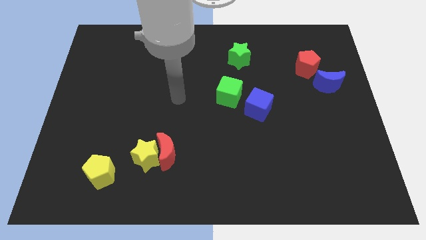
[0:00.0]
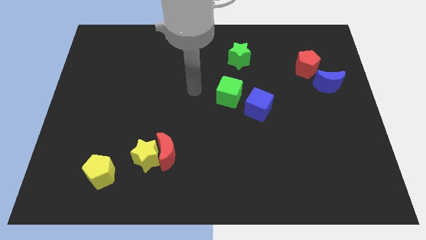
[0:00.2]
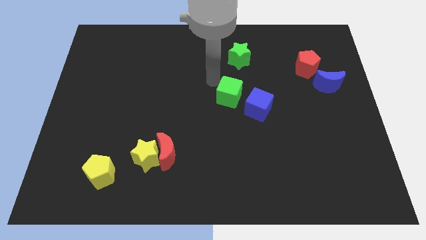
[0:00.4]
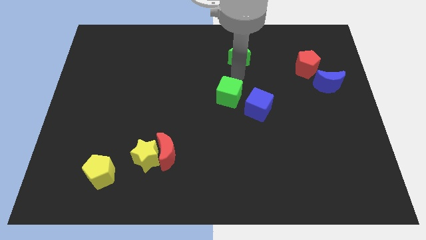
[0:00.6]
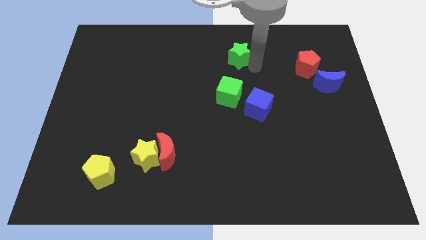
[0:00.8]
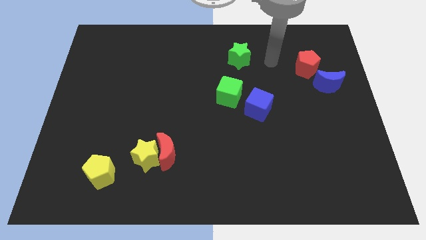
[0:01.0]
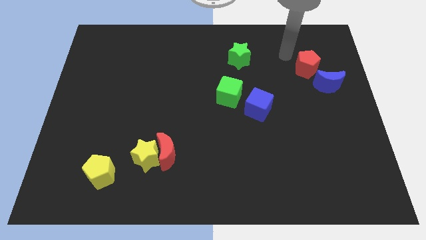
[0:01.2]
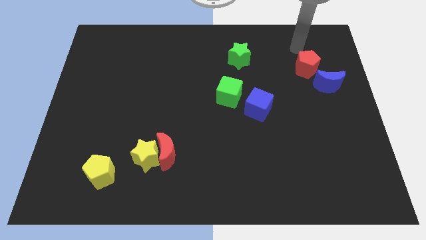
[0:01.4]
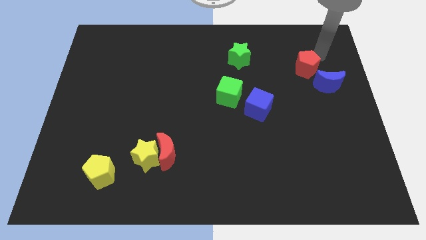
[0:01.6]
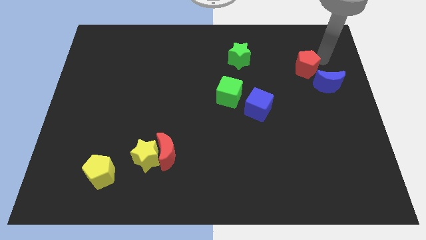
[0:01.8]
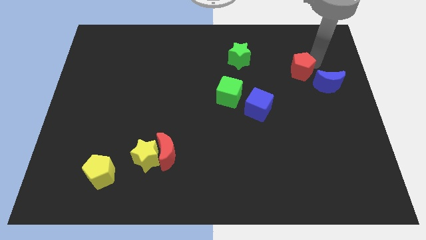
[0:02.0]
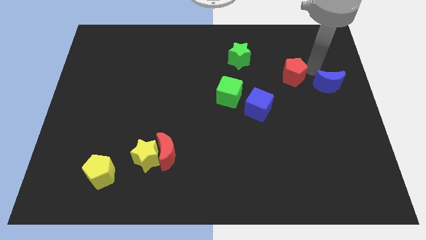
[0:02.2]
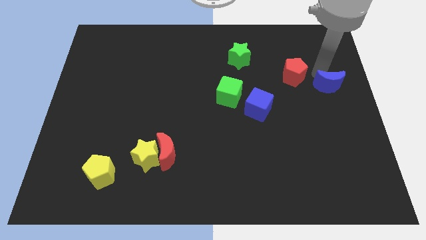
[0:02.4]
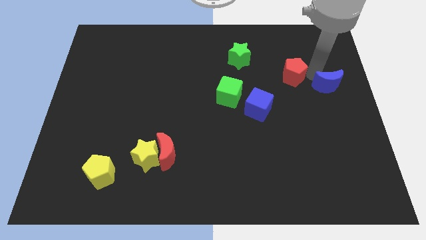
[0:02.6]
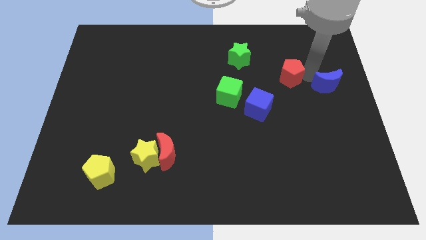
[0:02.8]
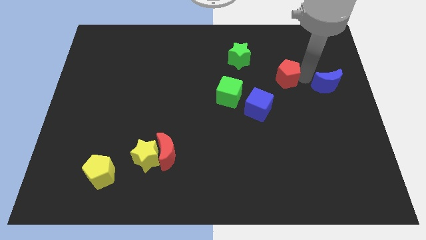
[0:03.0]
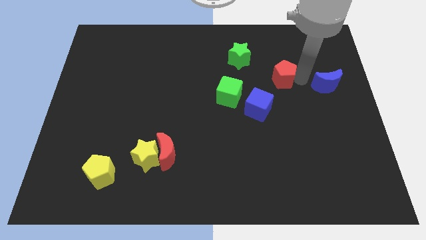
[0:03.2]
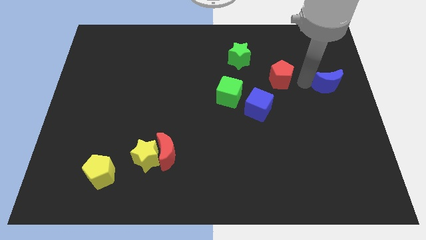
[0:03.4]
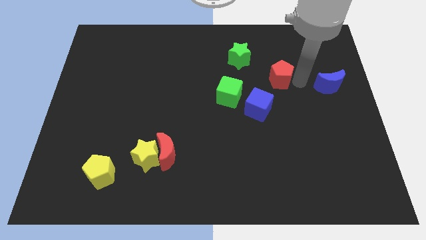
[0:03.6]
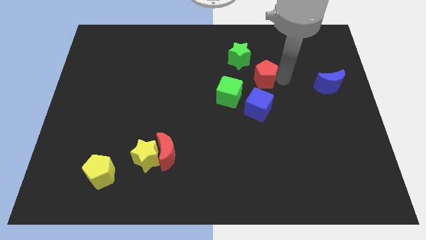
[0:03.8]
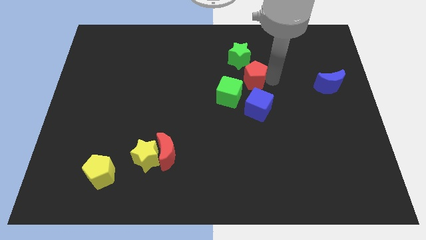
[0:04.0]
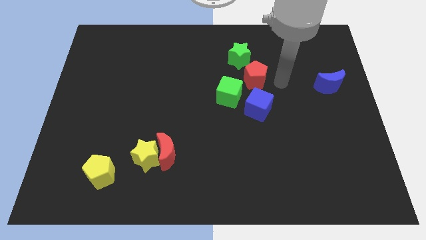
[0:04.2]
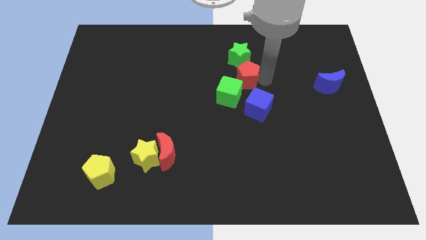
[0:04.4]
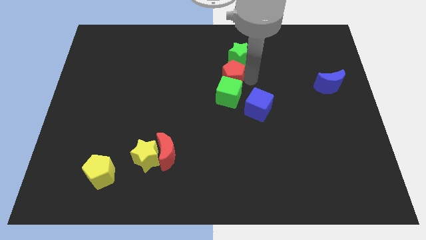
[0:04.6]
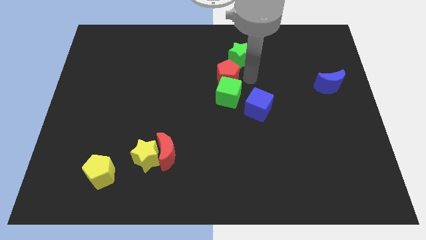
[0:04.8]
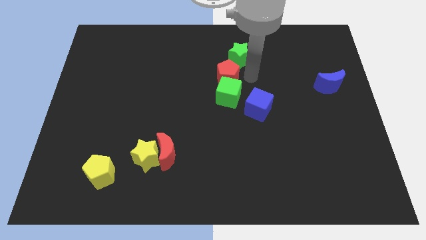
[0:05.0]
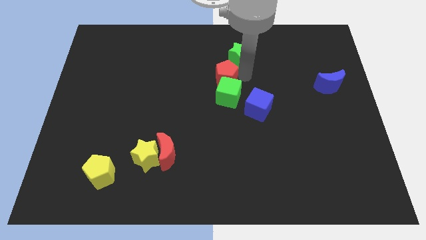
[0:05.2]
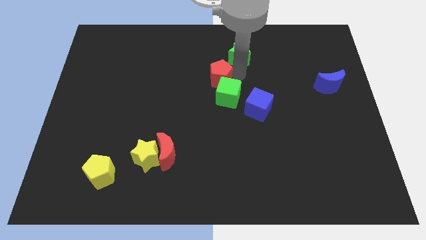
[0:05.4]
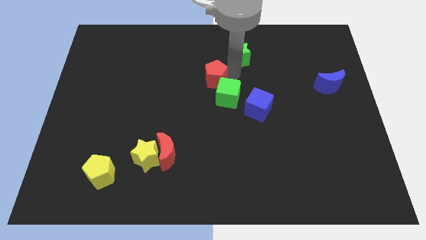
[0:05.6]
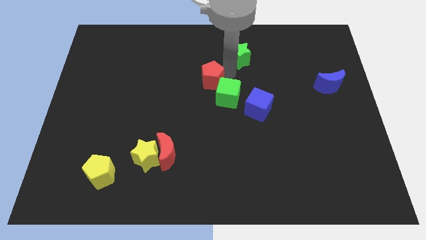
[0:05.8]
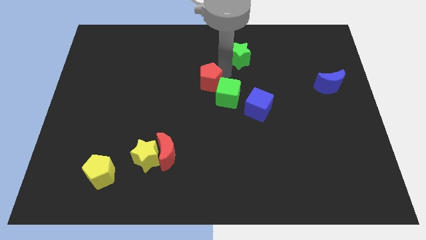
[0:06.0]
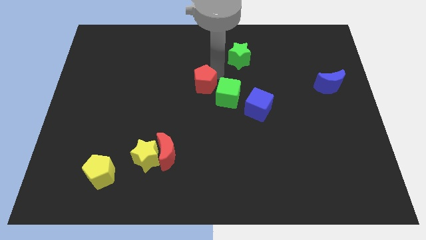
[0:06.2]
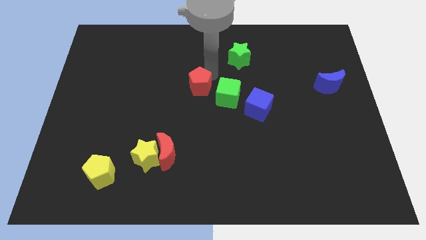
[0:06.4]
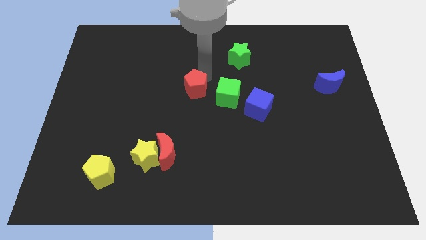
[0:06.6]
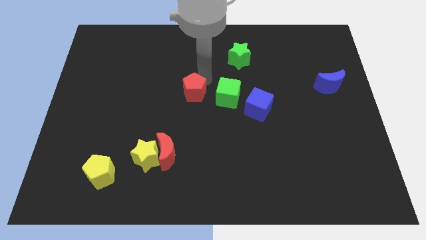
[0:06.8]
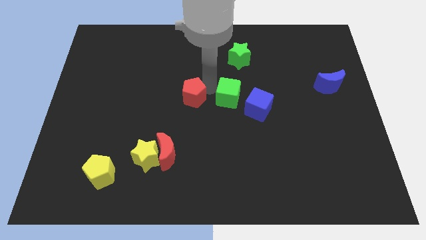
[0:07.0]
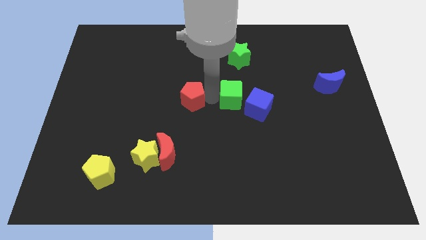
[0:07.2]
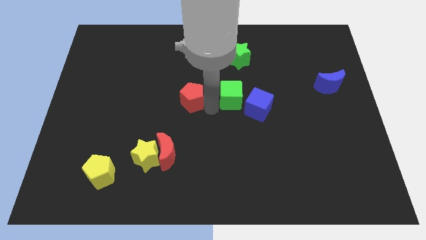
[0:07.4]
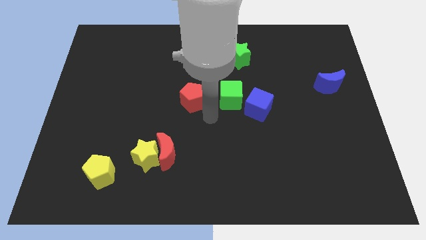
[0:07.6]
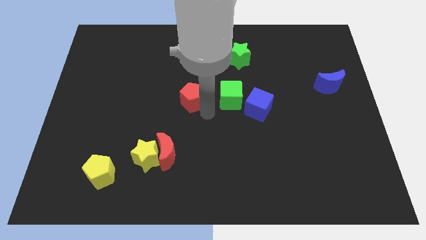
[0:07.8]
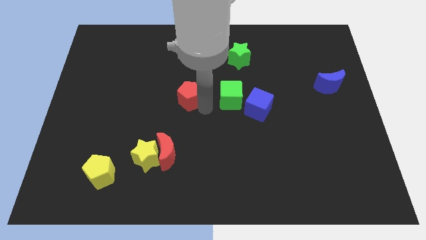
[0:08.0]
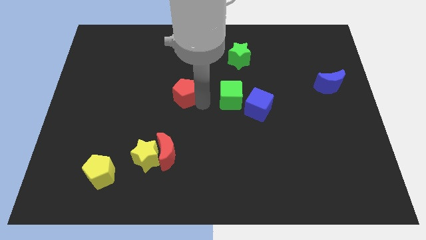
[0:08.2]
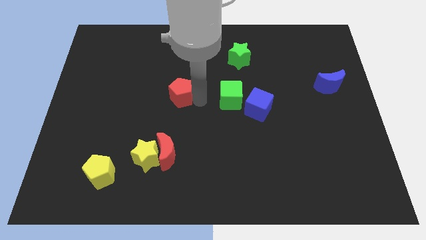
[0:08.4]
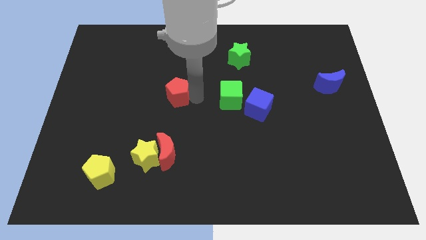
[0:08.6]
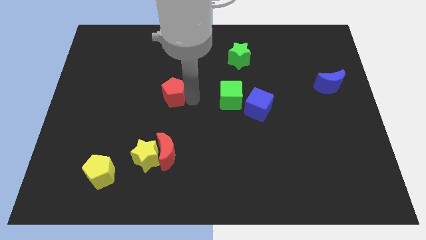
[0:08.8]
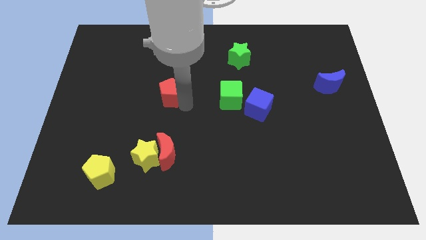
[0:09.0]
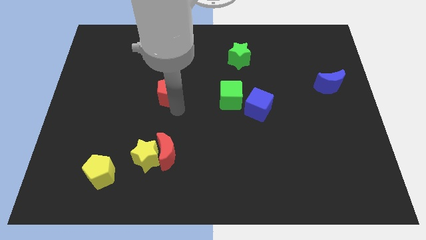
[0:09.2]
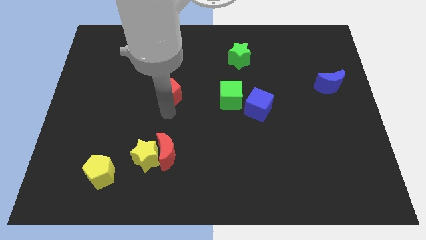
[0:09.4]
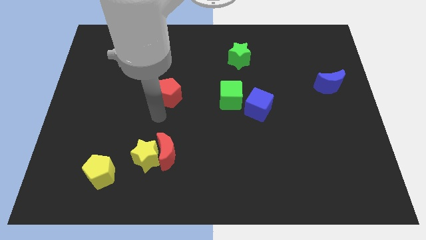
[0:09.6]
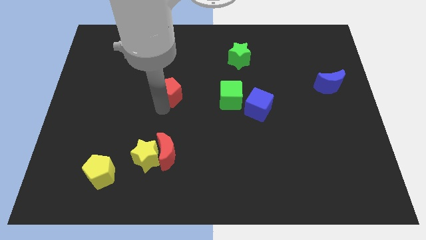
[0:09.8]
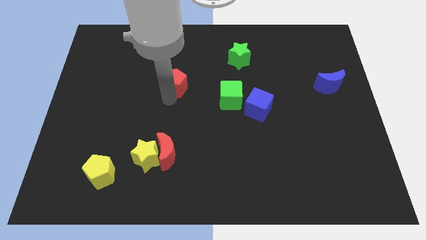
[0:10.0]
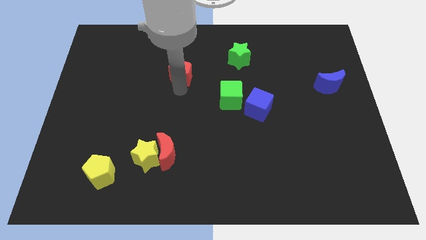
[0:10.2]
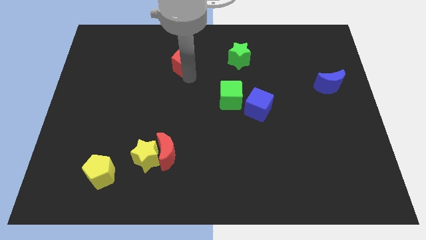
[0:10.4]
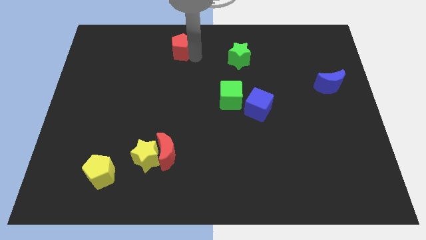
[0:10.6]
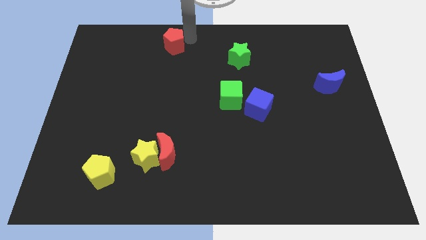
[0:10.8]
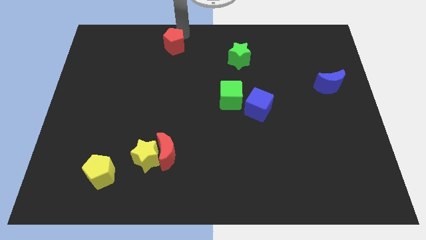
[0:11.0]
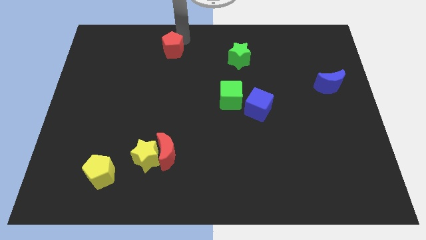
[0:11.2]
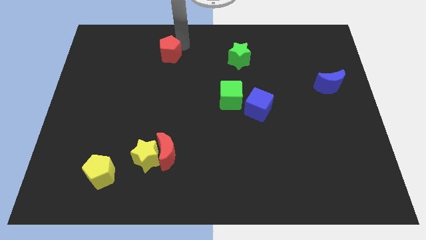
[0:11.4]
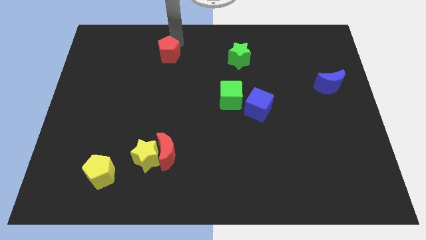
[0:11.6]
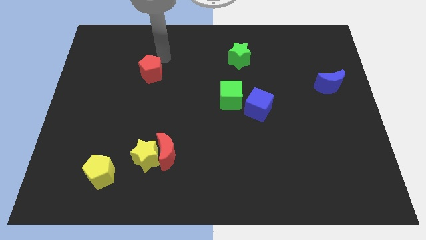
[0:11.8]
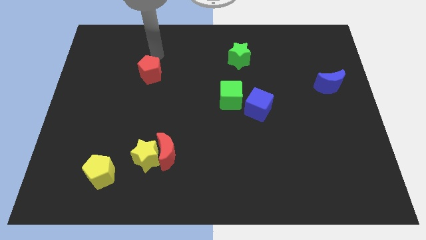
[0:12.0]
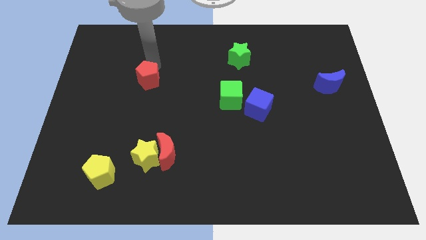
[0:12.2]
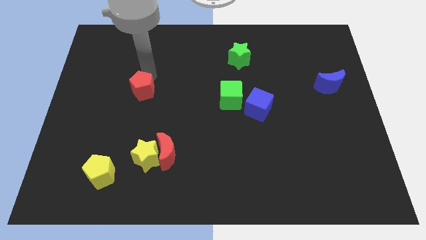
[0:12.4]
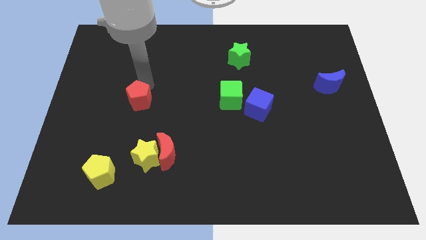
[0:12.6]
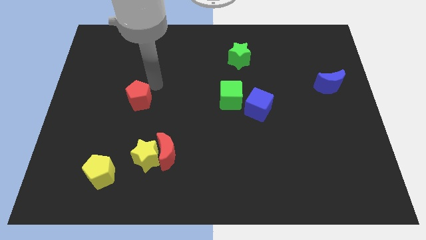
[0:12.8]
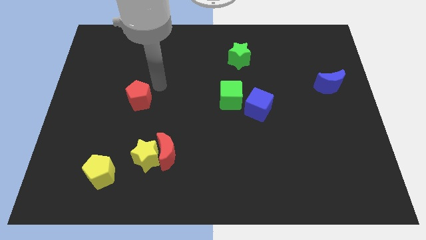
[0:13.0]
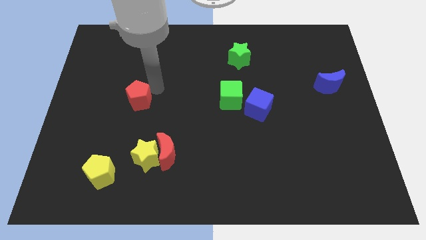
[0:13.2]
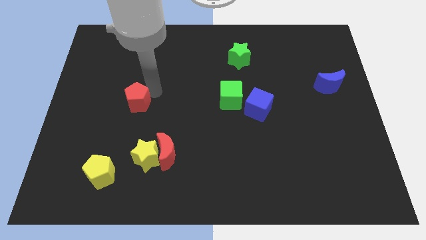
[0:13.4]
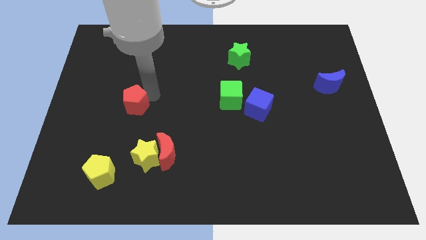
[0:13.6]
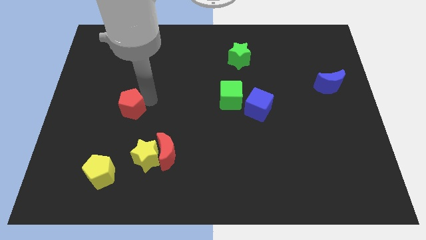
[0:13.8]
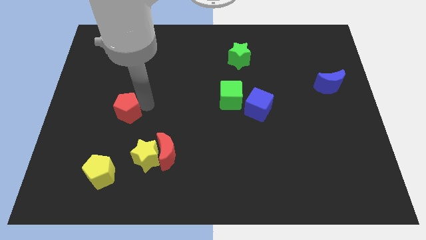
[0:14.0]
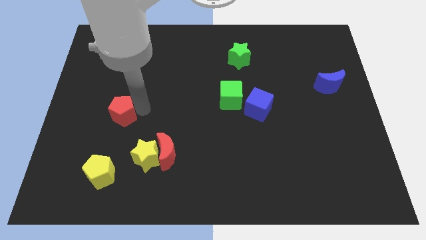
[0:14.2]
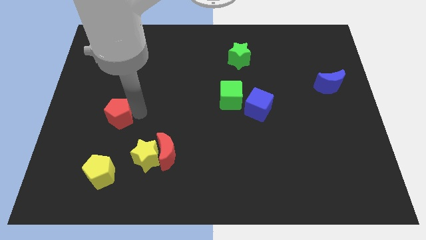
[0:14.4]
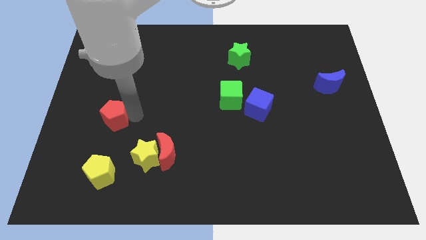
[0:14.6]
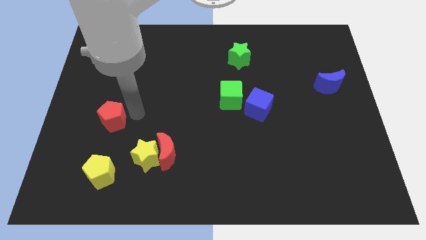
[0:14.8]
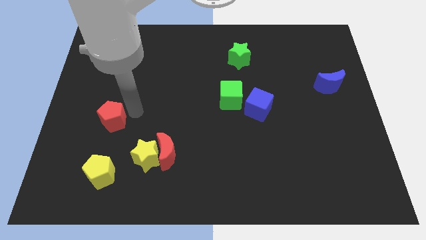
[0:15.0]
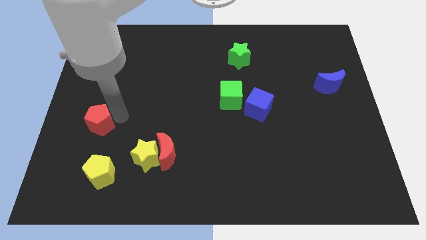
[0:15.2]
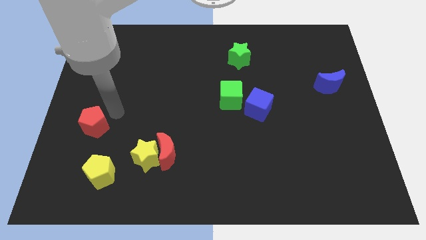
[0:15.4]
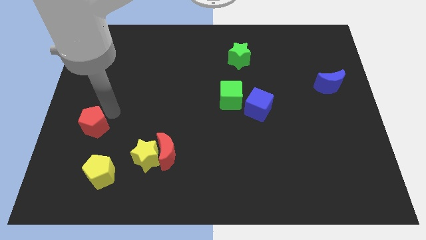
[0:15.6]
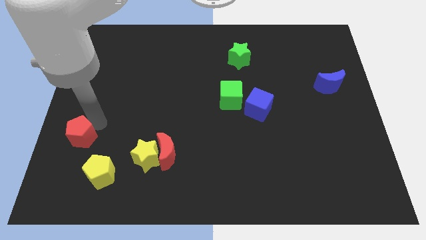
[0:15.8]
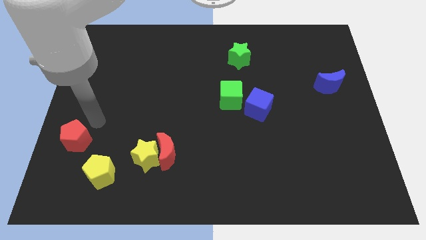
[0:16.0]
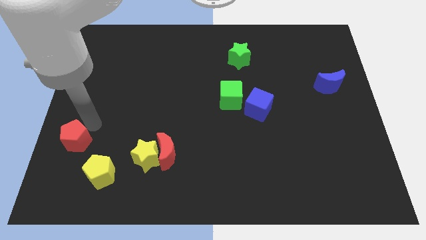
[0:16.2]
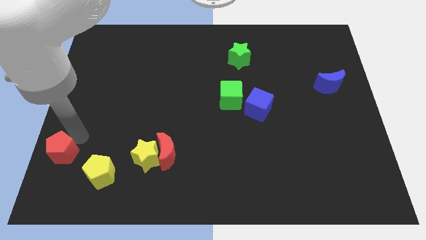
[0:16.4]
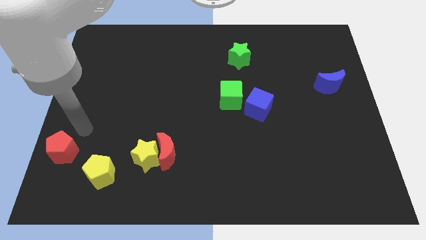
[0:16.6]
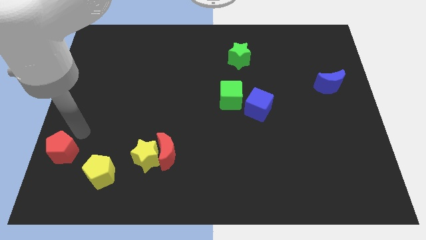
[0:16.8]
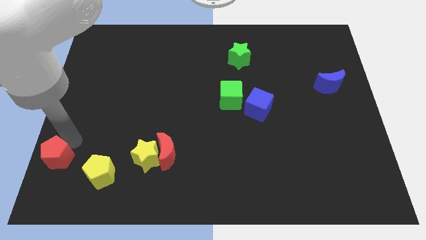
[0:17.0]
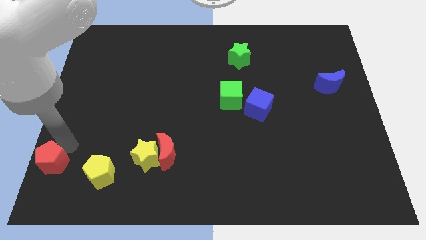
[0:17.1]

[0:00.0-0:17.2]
push the red pentagon to the lower left corner
